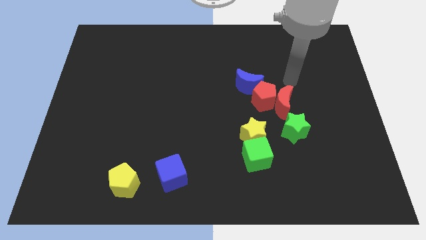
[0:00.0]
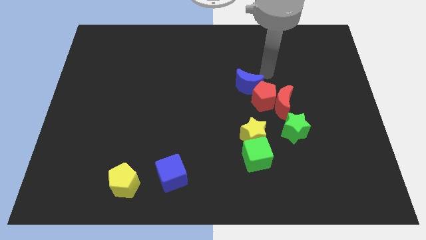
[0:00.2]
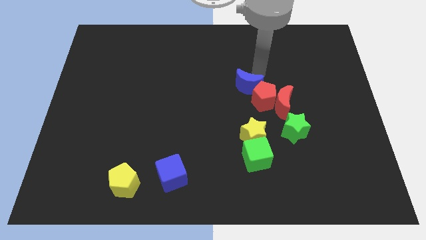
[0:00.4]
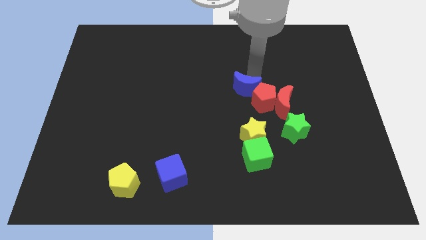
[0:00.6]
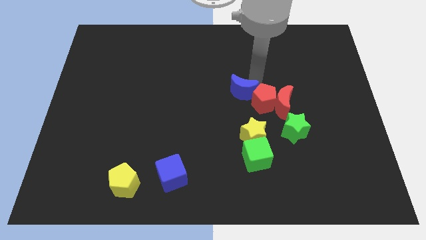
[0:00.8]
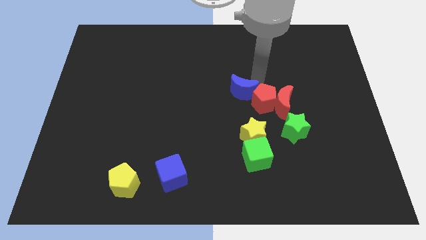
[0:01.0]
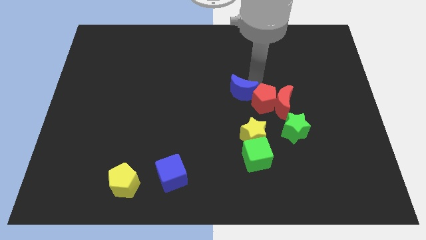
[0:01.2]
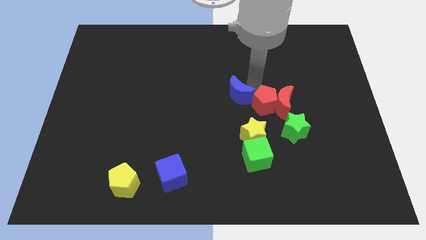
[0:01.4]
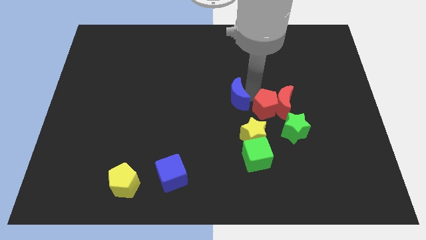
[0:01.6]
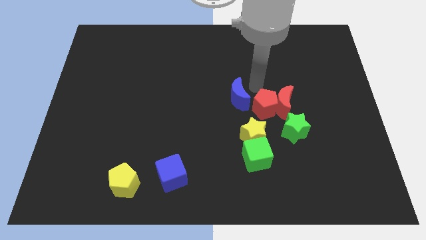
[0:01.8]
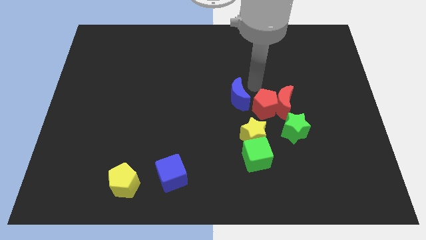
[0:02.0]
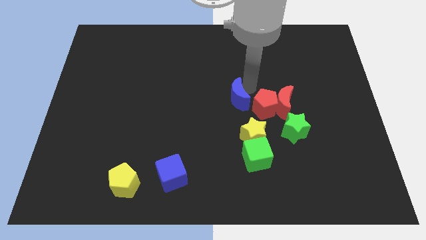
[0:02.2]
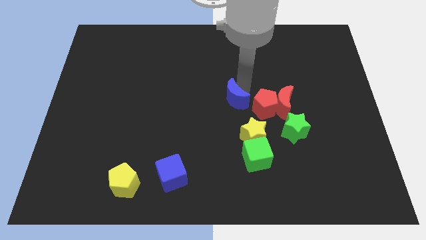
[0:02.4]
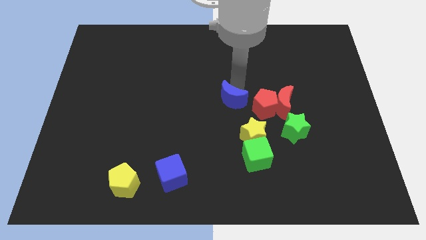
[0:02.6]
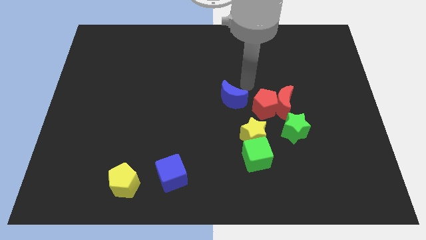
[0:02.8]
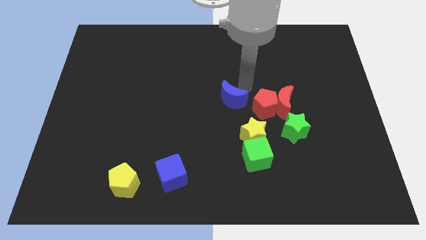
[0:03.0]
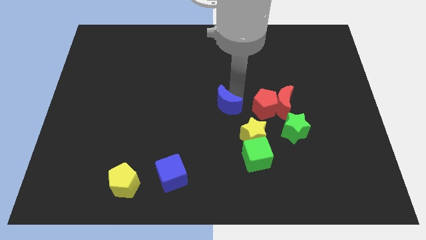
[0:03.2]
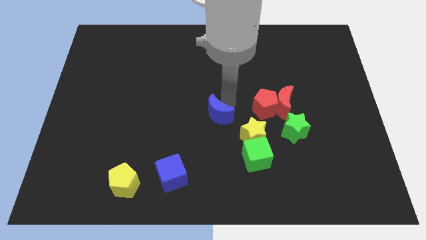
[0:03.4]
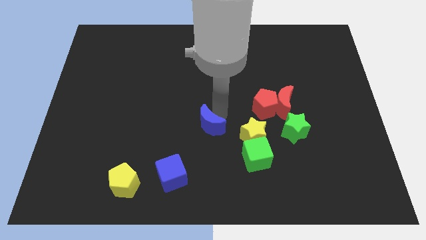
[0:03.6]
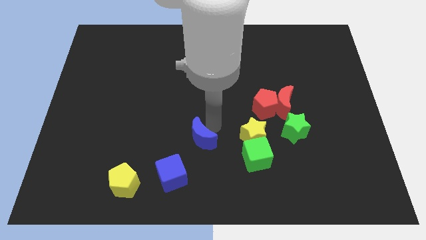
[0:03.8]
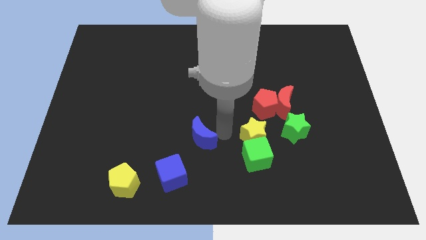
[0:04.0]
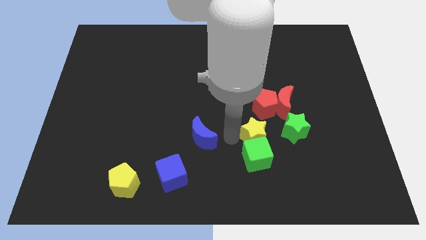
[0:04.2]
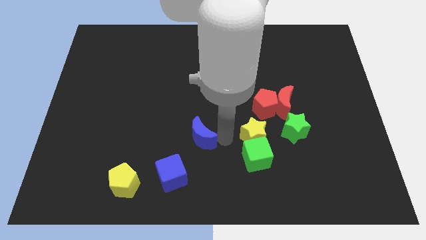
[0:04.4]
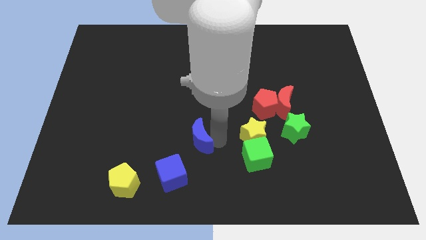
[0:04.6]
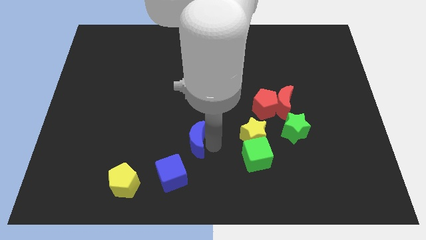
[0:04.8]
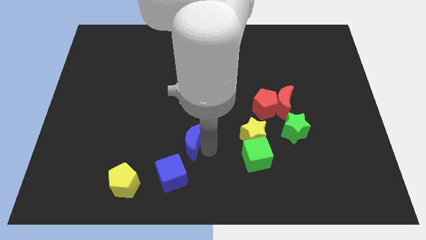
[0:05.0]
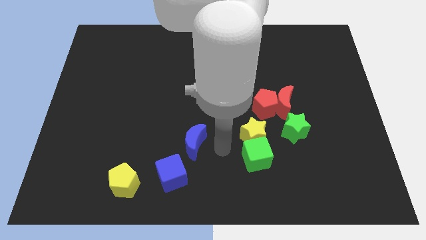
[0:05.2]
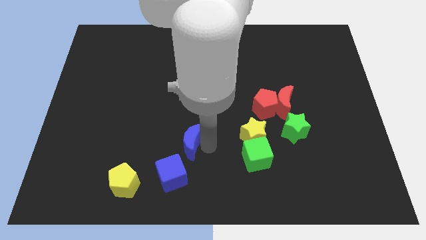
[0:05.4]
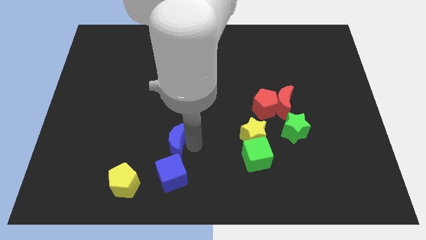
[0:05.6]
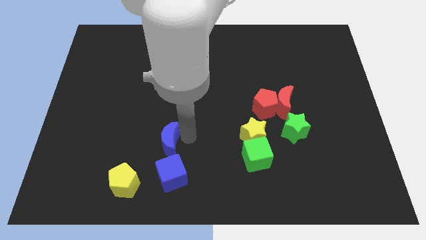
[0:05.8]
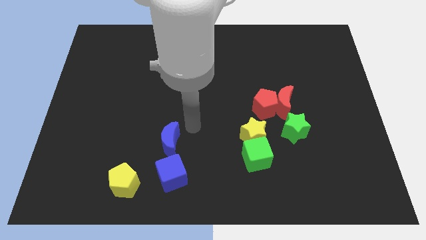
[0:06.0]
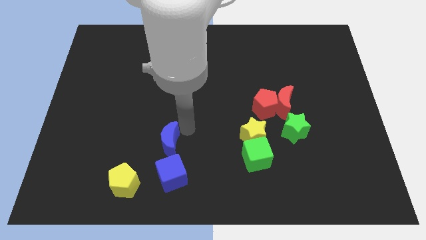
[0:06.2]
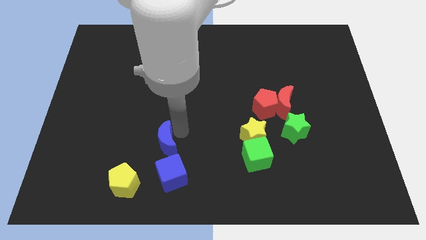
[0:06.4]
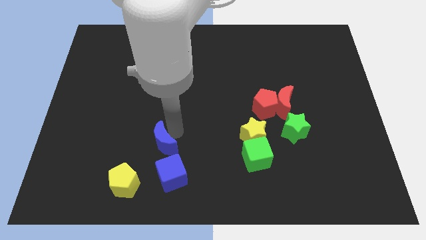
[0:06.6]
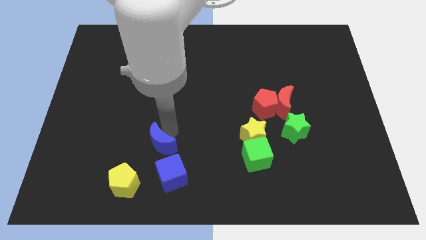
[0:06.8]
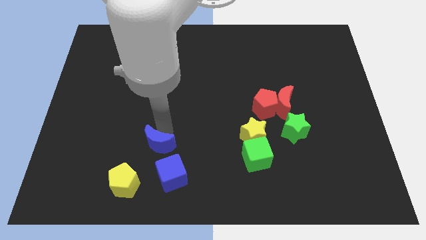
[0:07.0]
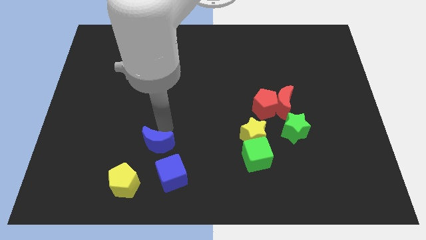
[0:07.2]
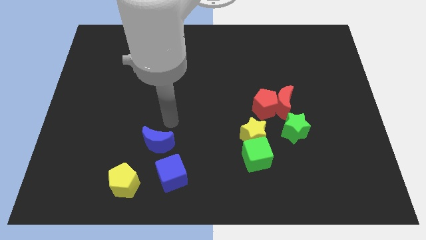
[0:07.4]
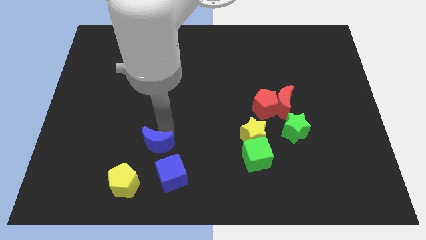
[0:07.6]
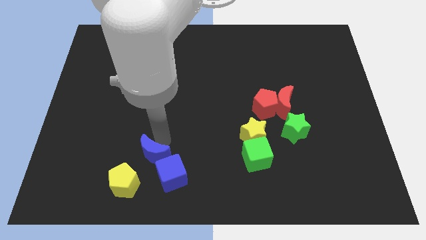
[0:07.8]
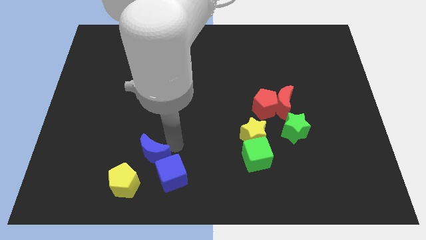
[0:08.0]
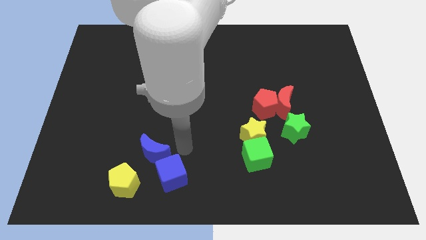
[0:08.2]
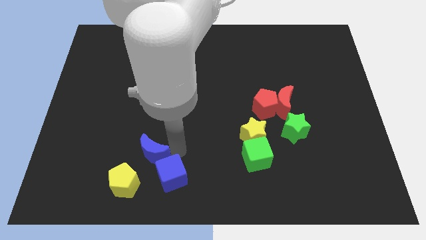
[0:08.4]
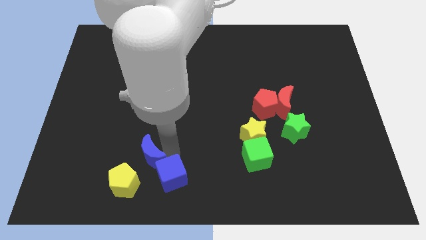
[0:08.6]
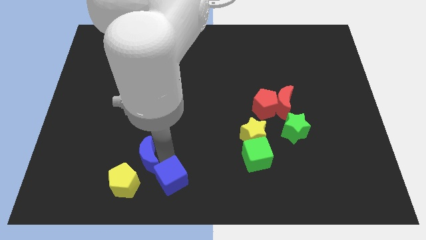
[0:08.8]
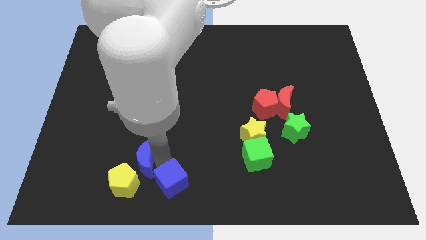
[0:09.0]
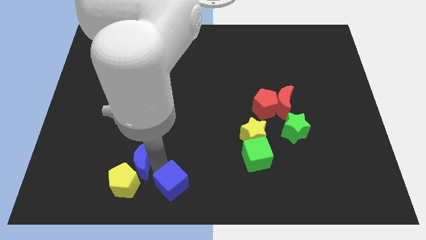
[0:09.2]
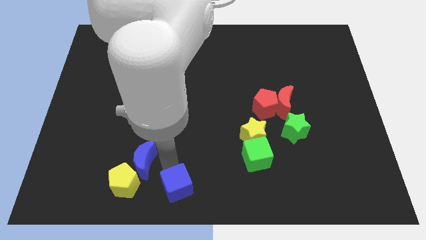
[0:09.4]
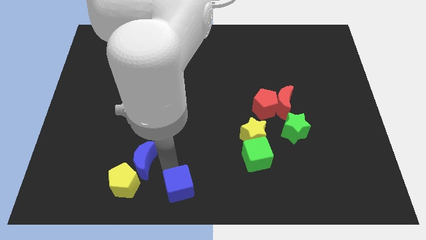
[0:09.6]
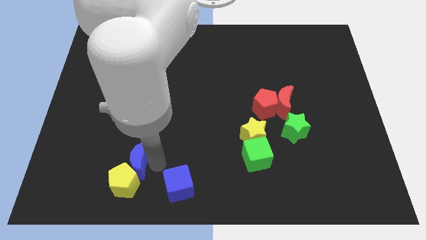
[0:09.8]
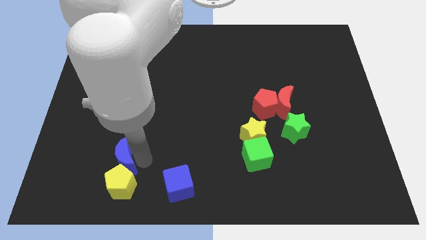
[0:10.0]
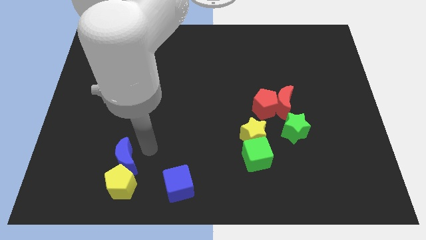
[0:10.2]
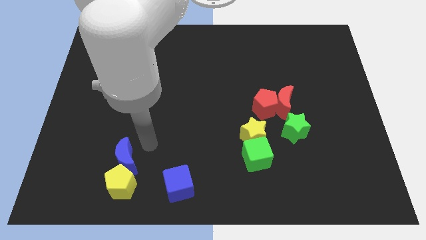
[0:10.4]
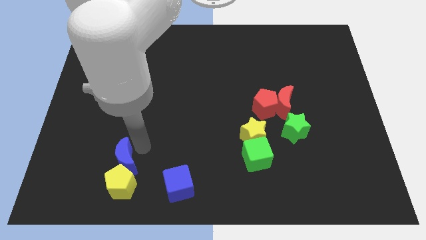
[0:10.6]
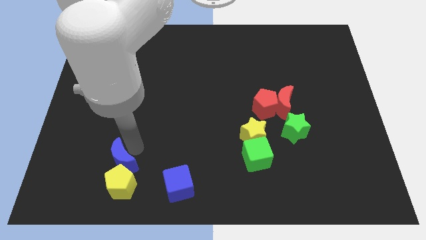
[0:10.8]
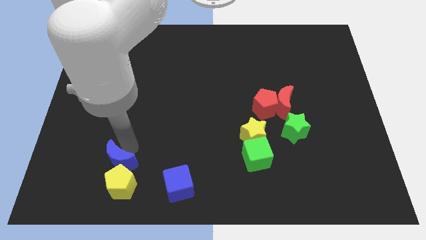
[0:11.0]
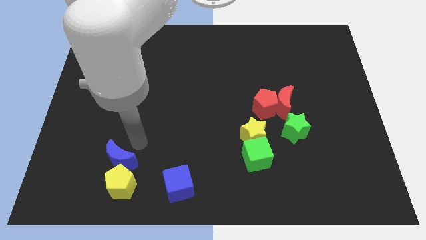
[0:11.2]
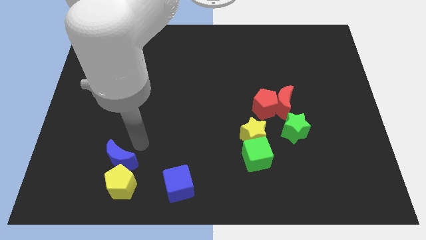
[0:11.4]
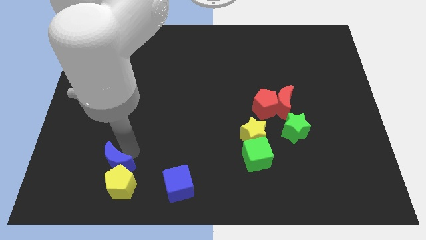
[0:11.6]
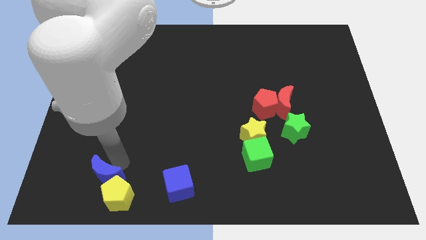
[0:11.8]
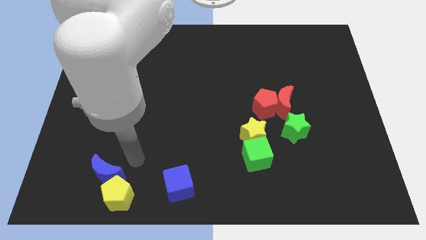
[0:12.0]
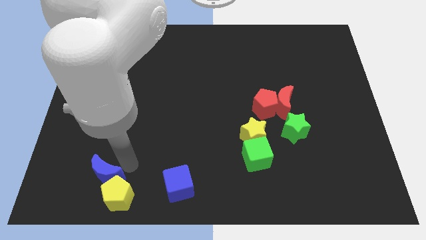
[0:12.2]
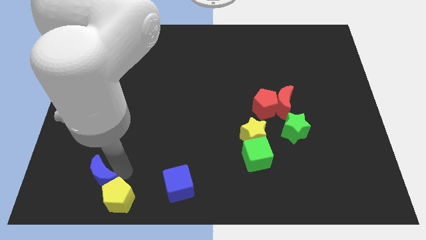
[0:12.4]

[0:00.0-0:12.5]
push the blue moon just left of the yellow pentagon
